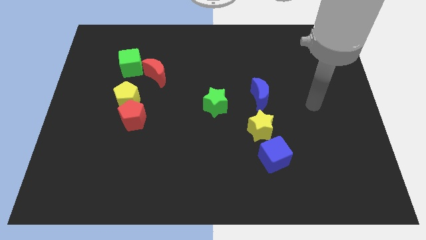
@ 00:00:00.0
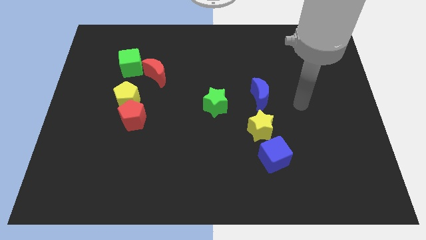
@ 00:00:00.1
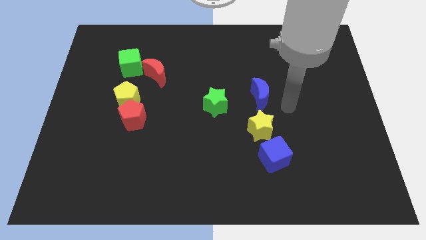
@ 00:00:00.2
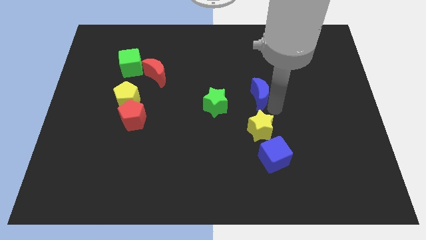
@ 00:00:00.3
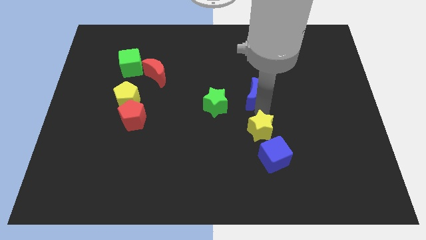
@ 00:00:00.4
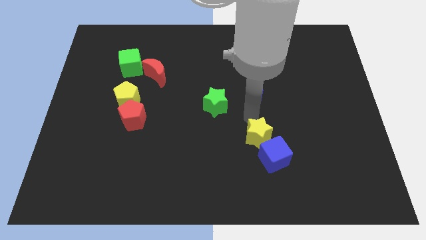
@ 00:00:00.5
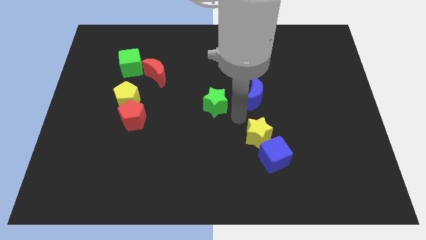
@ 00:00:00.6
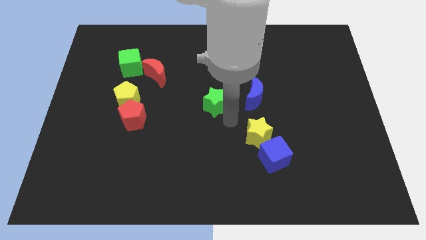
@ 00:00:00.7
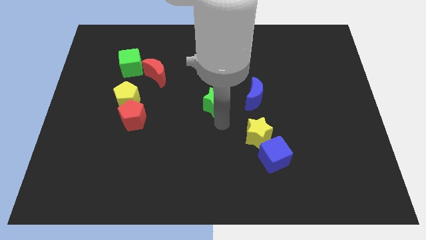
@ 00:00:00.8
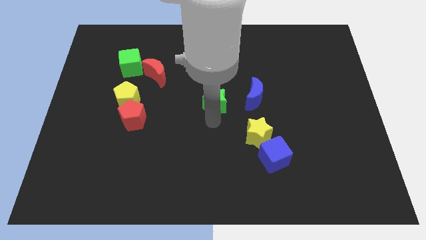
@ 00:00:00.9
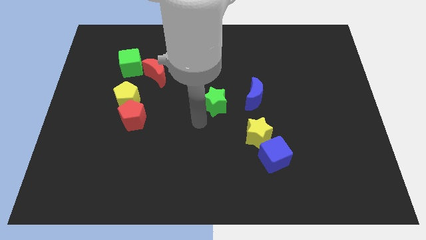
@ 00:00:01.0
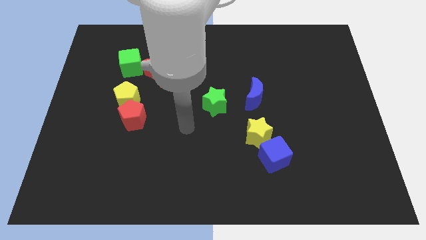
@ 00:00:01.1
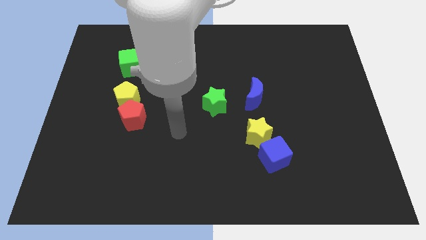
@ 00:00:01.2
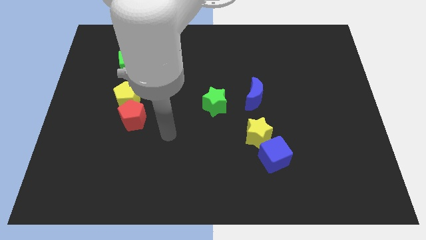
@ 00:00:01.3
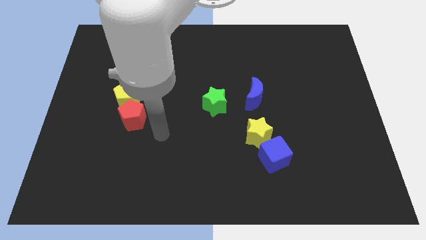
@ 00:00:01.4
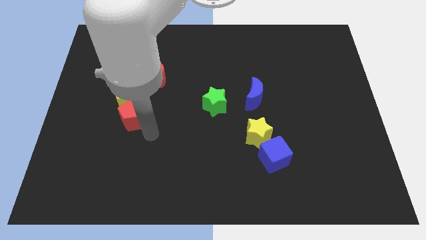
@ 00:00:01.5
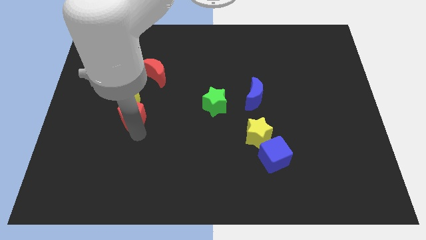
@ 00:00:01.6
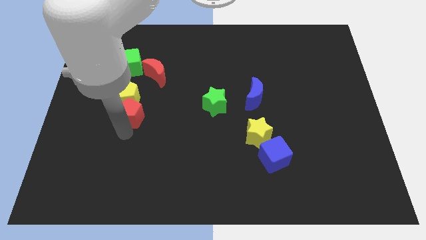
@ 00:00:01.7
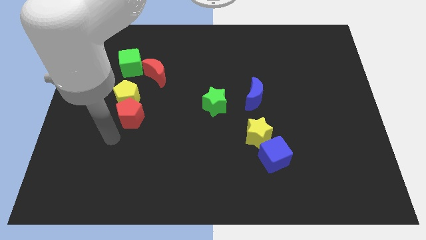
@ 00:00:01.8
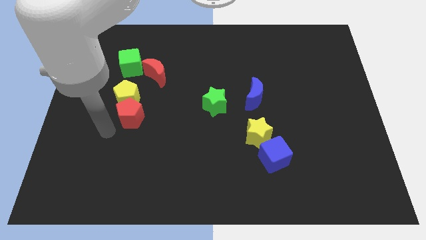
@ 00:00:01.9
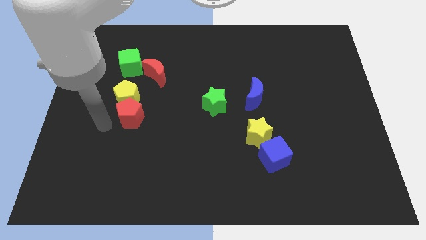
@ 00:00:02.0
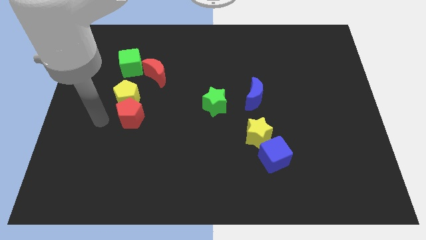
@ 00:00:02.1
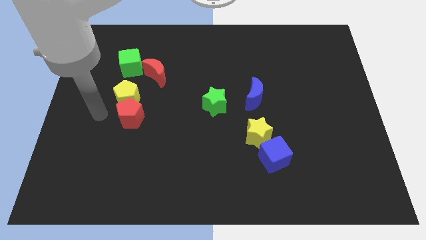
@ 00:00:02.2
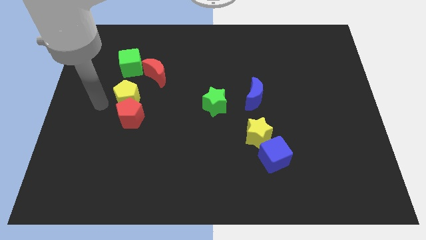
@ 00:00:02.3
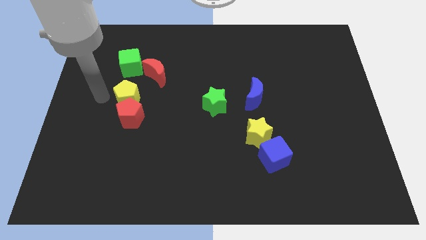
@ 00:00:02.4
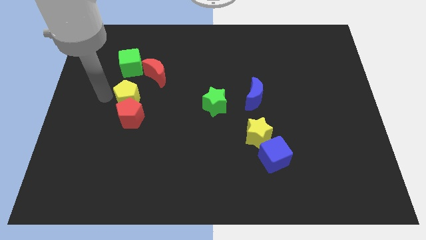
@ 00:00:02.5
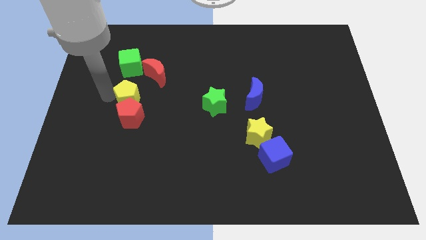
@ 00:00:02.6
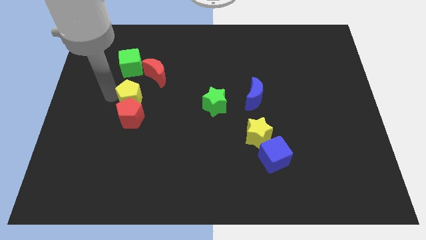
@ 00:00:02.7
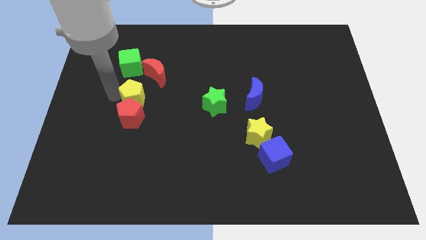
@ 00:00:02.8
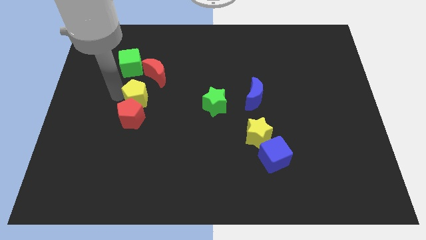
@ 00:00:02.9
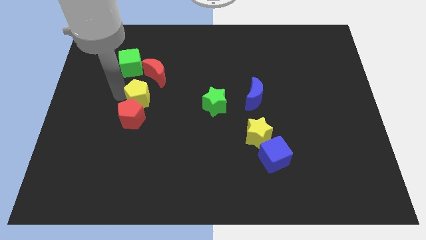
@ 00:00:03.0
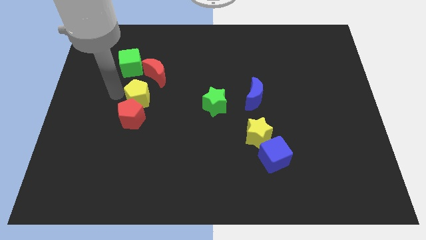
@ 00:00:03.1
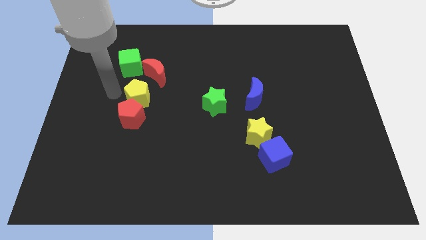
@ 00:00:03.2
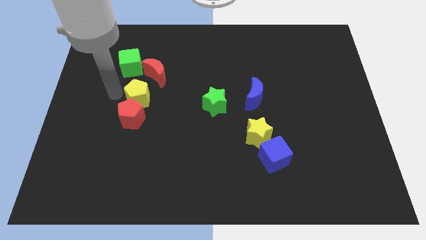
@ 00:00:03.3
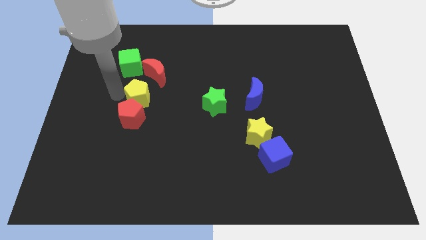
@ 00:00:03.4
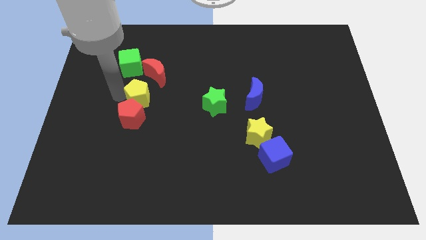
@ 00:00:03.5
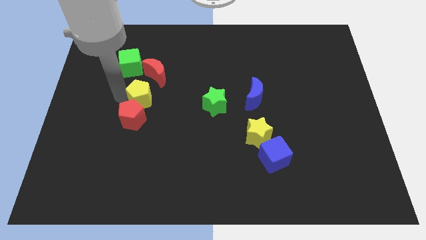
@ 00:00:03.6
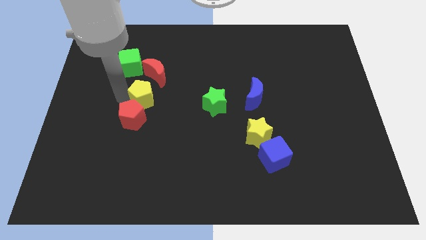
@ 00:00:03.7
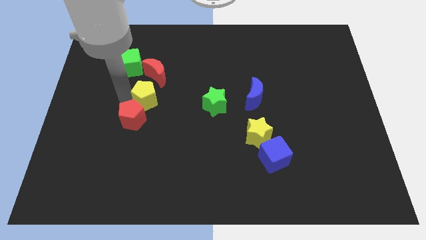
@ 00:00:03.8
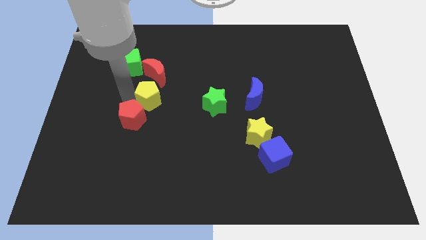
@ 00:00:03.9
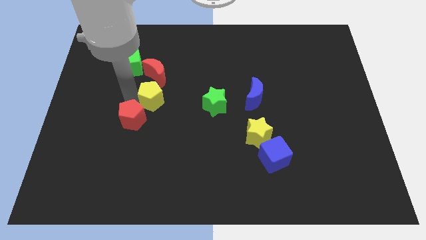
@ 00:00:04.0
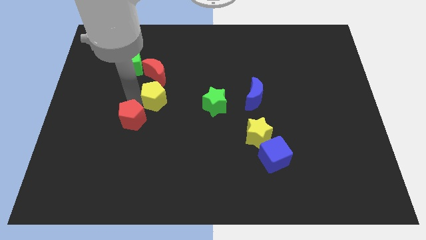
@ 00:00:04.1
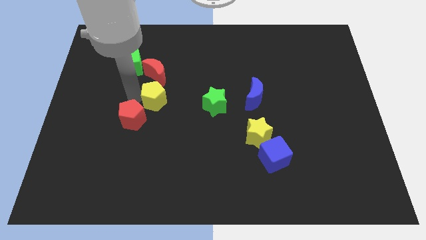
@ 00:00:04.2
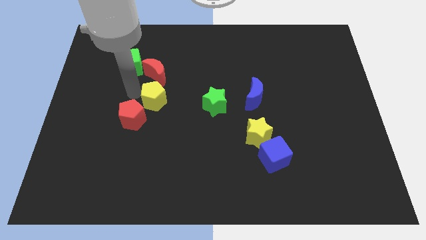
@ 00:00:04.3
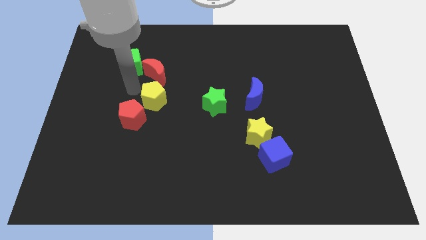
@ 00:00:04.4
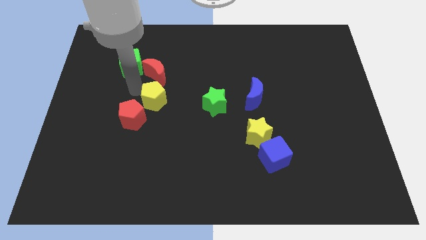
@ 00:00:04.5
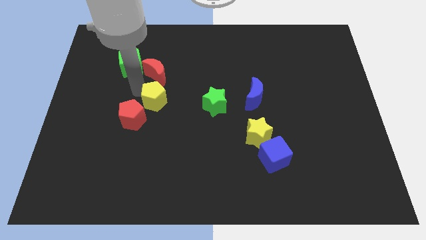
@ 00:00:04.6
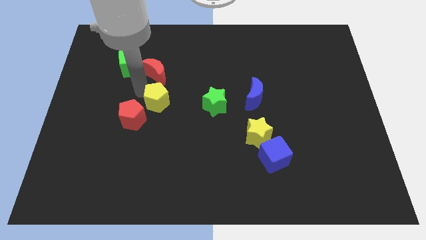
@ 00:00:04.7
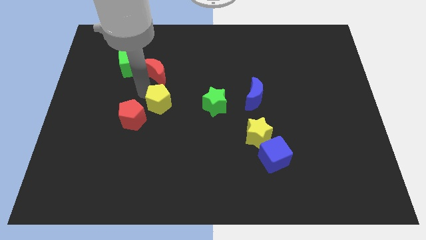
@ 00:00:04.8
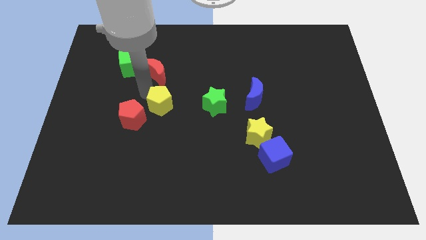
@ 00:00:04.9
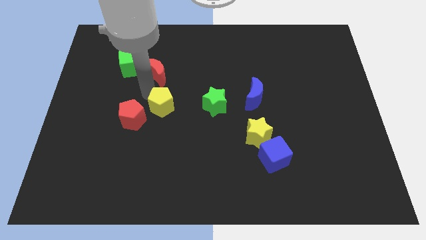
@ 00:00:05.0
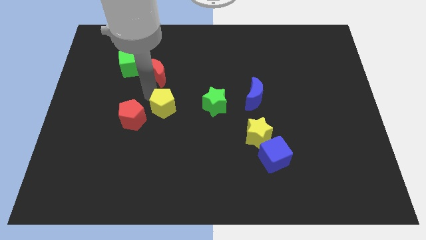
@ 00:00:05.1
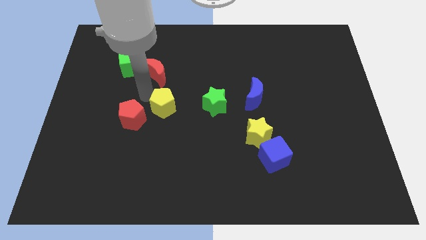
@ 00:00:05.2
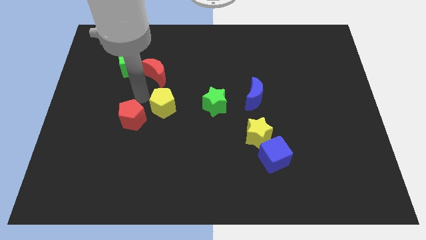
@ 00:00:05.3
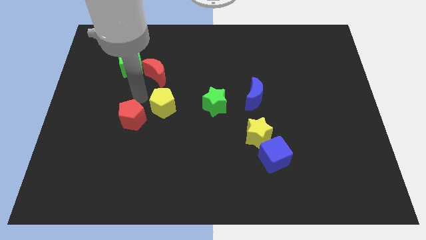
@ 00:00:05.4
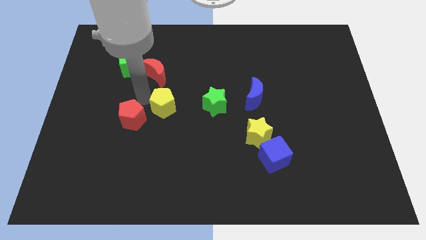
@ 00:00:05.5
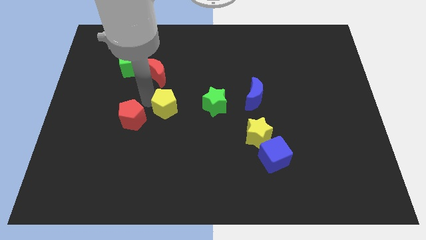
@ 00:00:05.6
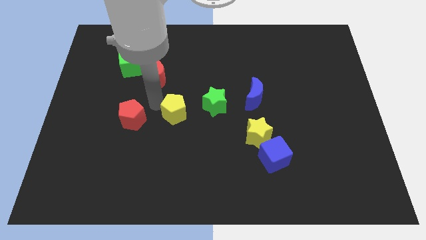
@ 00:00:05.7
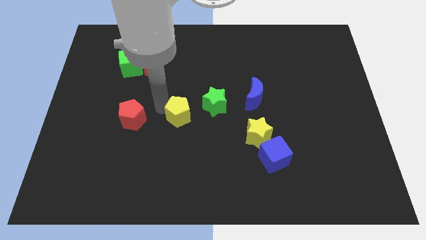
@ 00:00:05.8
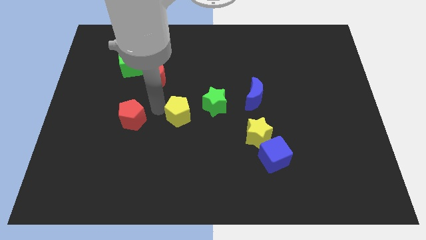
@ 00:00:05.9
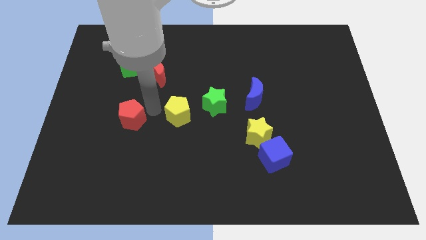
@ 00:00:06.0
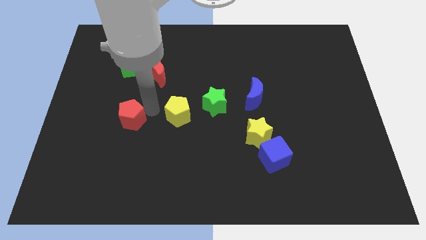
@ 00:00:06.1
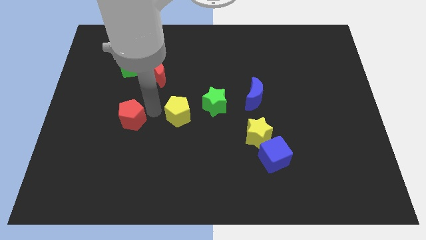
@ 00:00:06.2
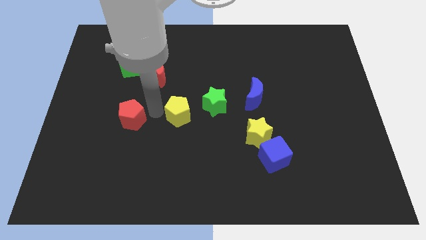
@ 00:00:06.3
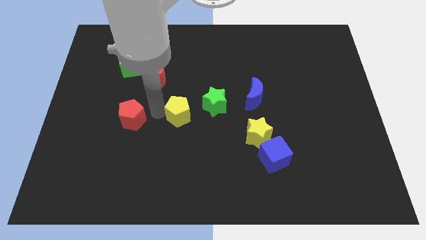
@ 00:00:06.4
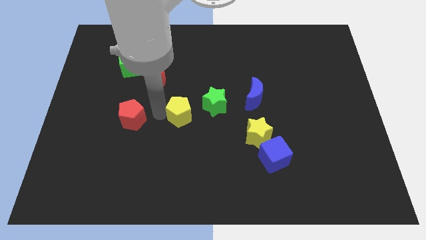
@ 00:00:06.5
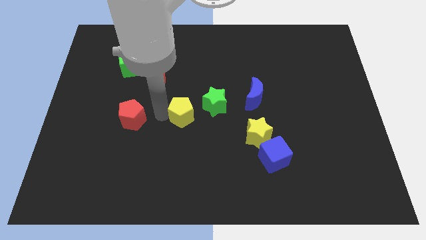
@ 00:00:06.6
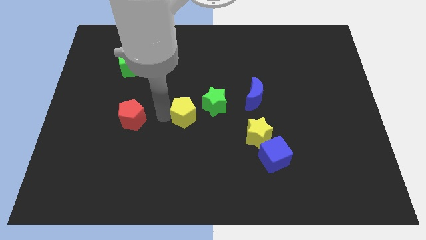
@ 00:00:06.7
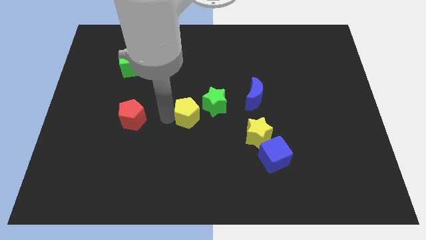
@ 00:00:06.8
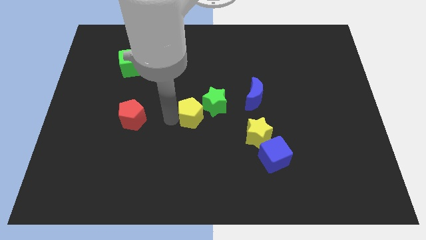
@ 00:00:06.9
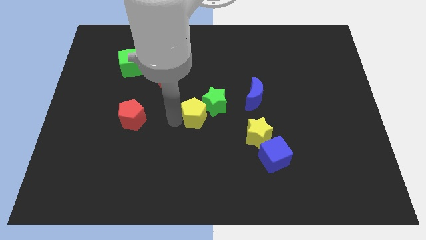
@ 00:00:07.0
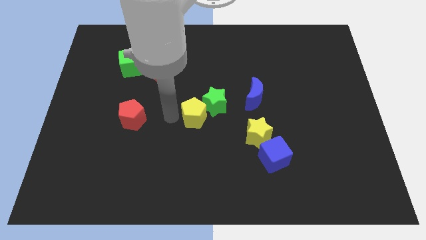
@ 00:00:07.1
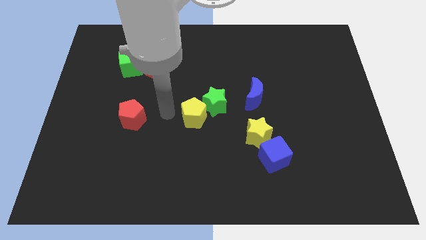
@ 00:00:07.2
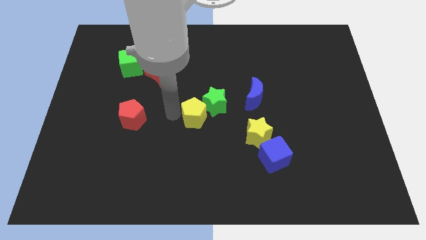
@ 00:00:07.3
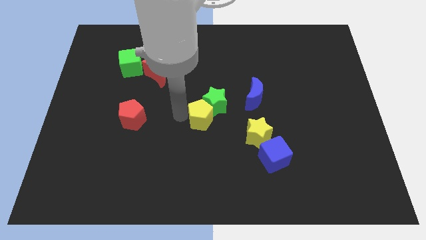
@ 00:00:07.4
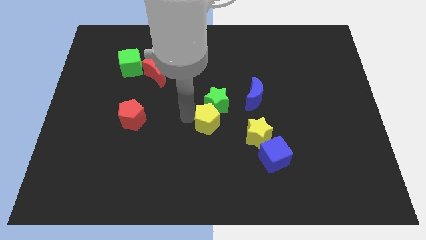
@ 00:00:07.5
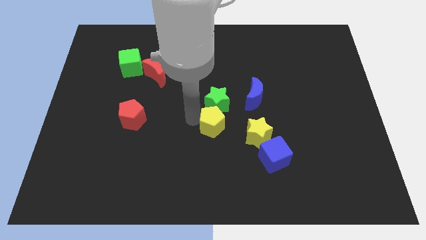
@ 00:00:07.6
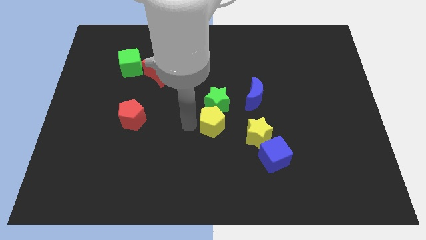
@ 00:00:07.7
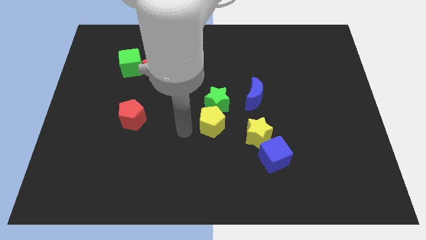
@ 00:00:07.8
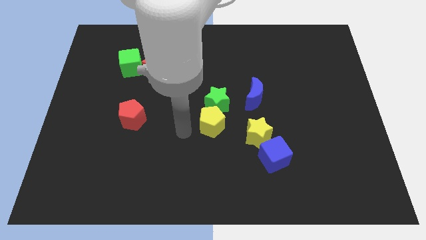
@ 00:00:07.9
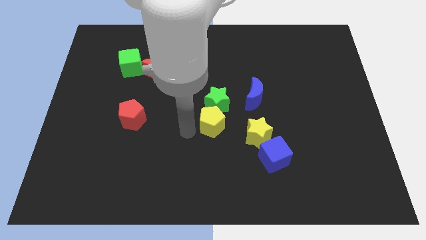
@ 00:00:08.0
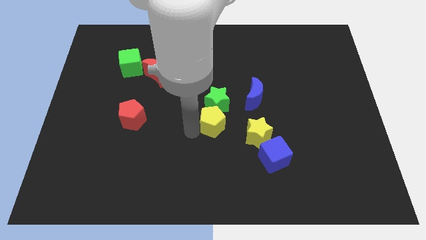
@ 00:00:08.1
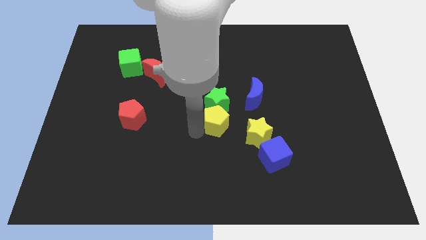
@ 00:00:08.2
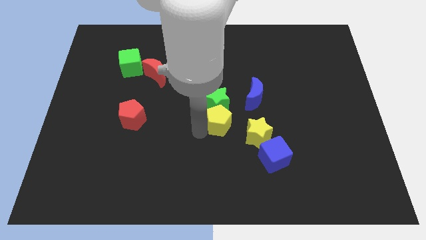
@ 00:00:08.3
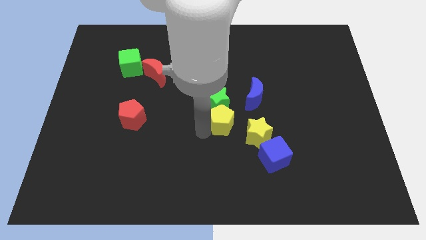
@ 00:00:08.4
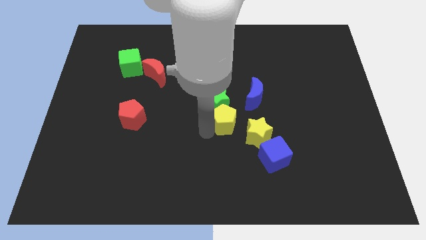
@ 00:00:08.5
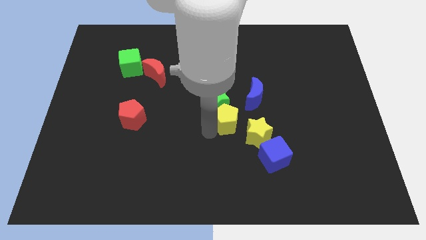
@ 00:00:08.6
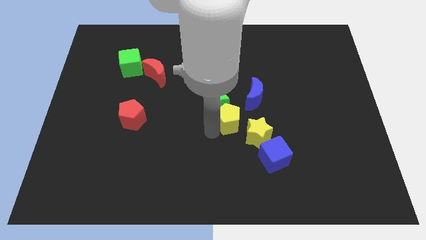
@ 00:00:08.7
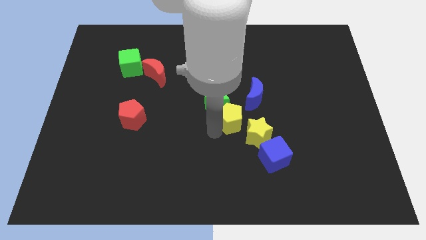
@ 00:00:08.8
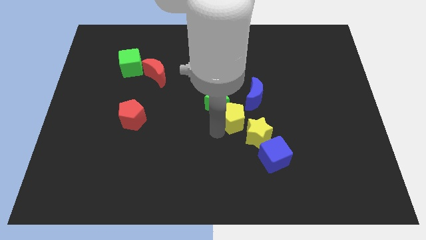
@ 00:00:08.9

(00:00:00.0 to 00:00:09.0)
move the yellow pentagon to the right side of the green star
